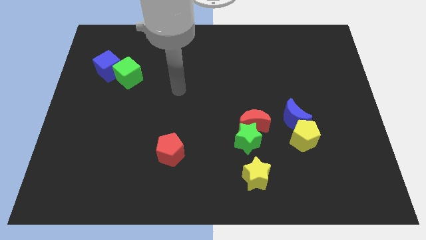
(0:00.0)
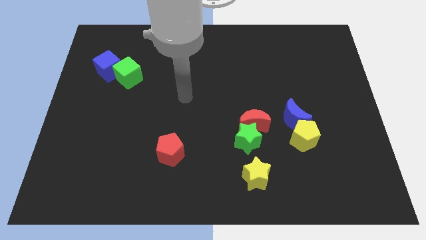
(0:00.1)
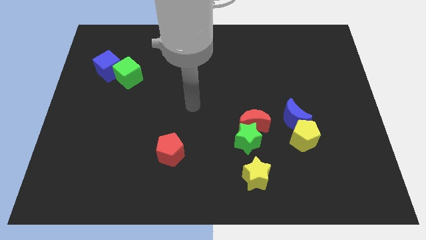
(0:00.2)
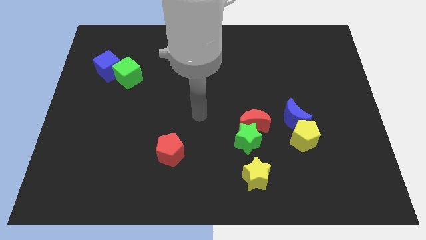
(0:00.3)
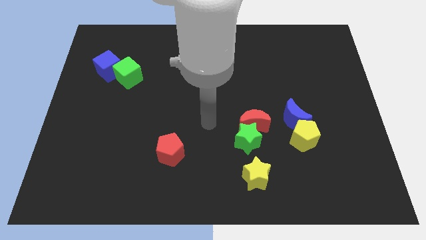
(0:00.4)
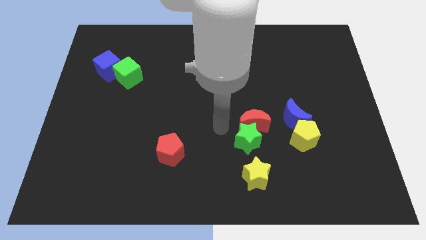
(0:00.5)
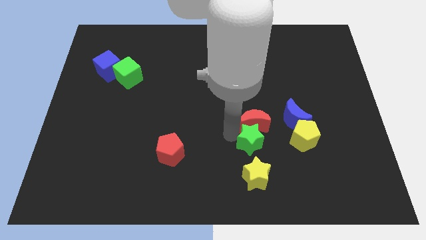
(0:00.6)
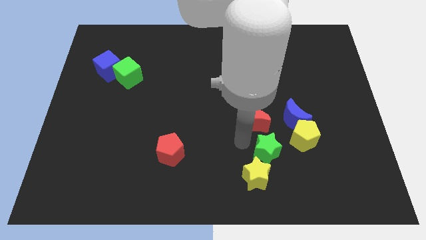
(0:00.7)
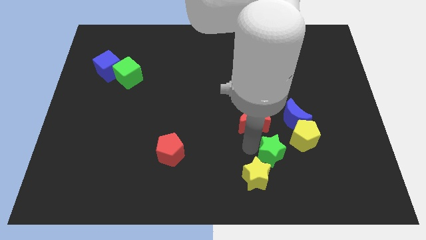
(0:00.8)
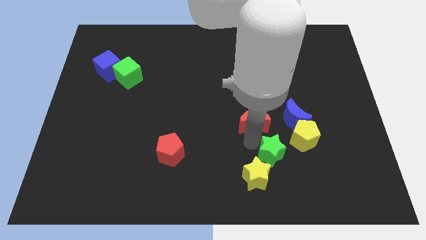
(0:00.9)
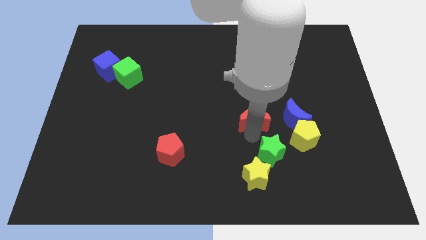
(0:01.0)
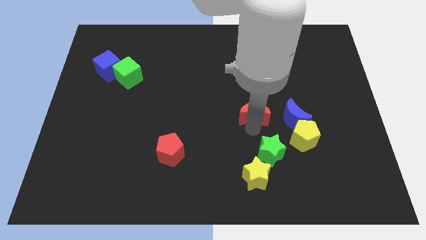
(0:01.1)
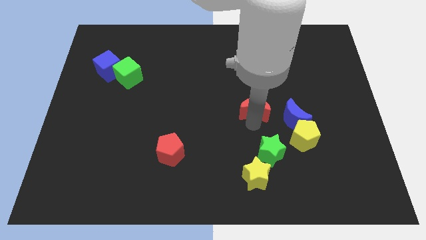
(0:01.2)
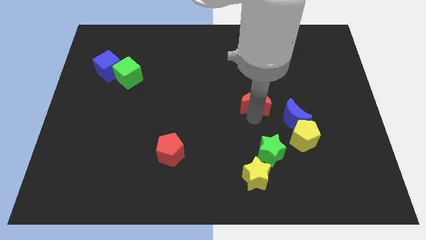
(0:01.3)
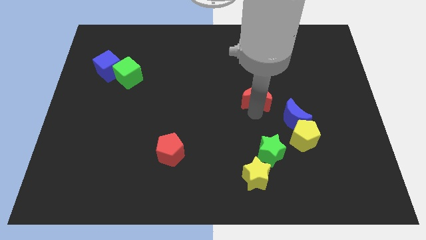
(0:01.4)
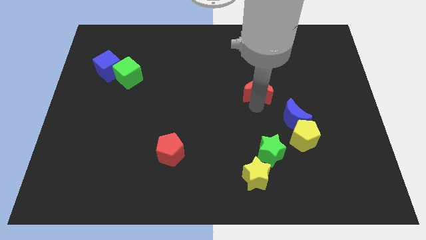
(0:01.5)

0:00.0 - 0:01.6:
slightly move the red moon up

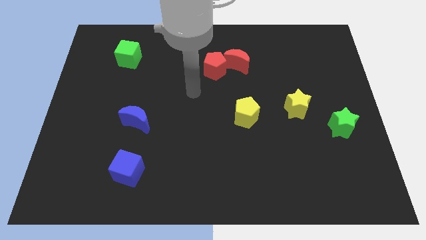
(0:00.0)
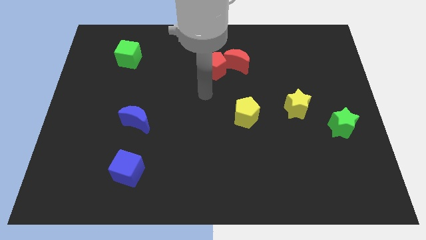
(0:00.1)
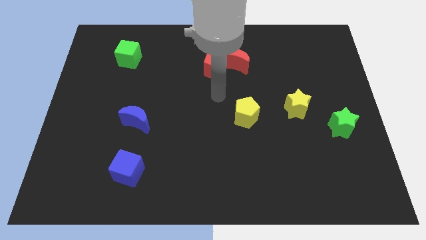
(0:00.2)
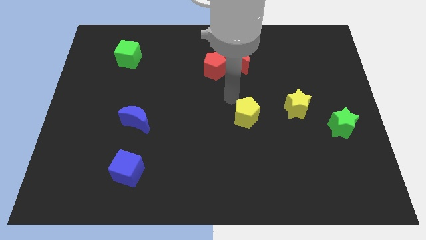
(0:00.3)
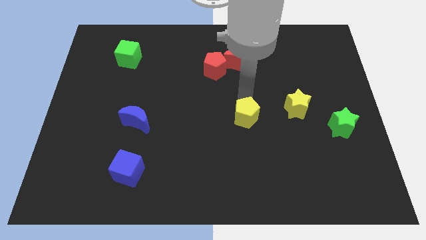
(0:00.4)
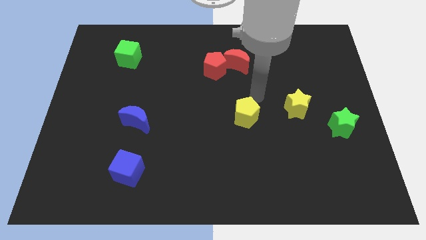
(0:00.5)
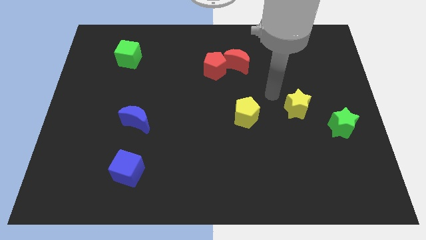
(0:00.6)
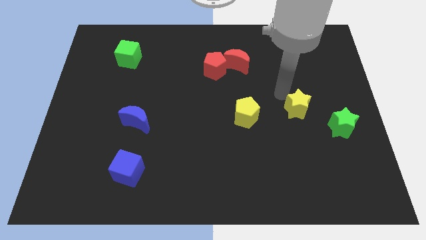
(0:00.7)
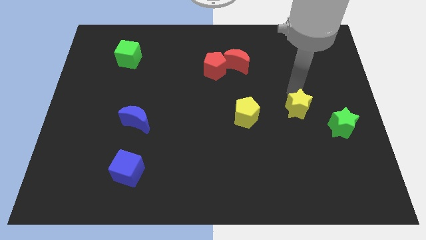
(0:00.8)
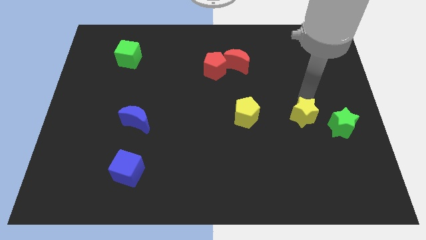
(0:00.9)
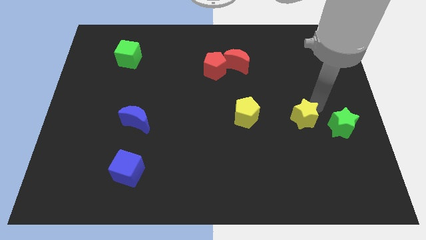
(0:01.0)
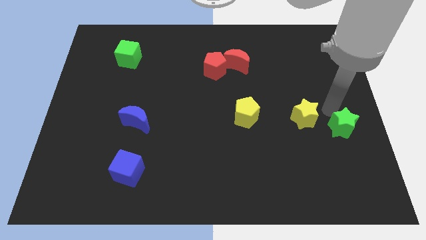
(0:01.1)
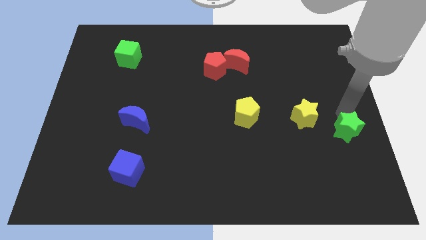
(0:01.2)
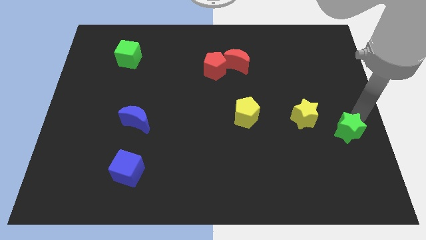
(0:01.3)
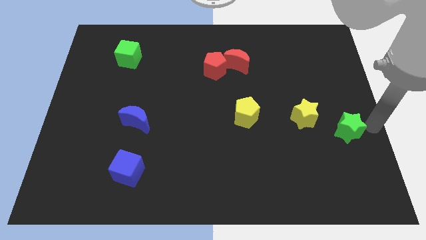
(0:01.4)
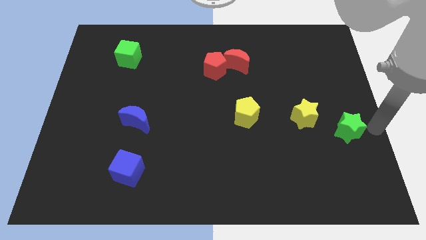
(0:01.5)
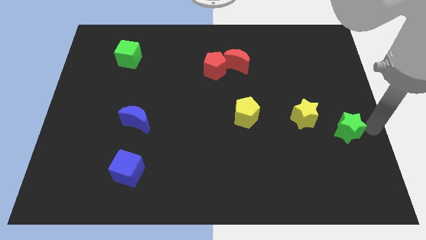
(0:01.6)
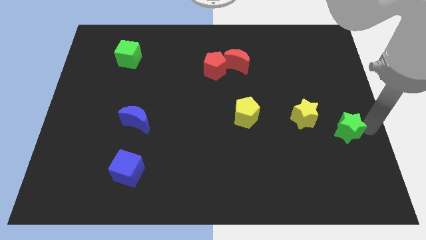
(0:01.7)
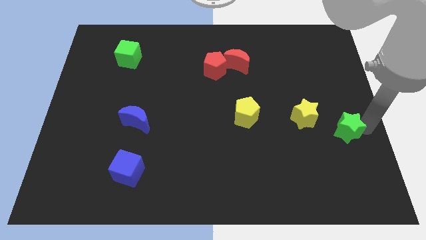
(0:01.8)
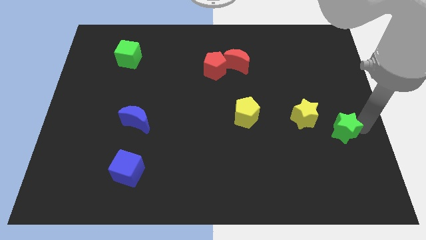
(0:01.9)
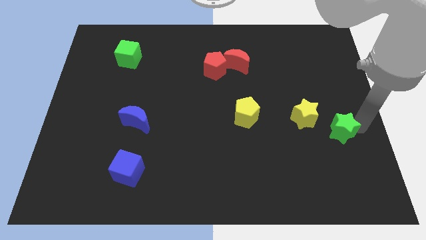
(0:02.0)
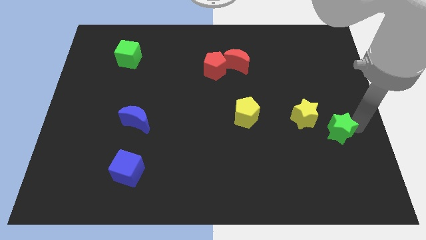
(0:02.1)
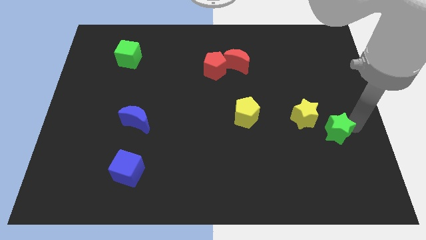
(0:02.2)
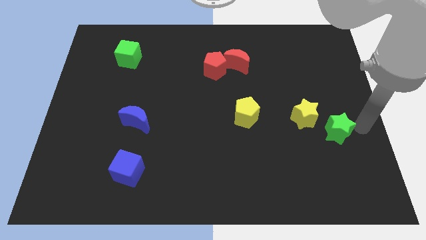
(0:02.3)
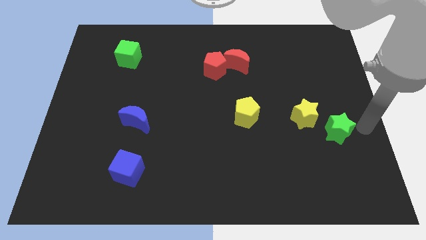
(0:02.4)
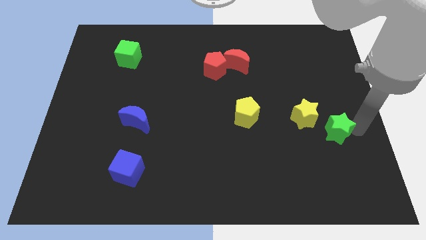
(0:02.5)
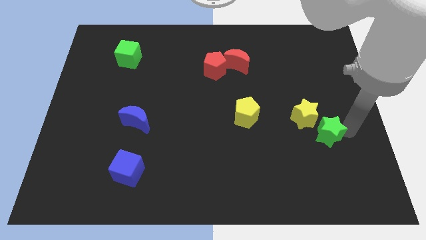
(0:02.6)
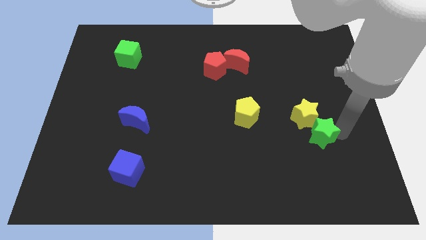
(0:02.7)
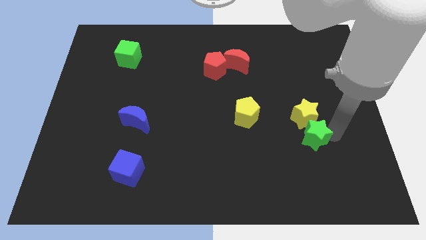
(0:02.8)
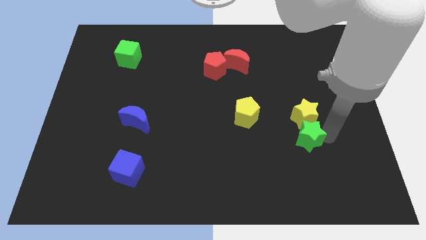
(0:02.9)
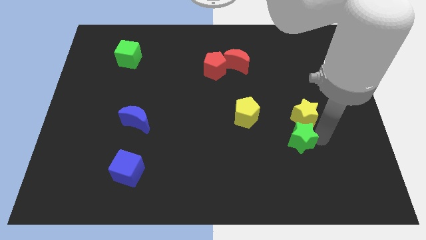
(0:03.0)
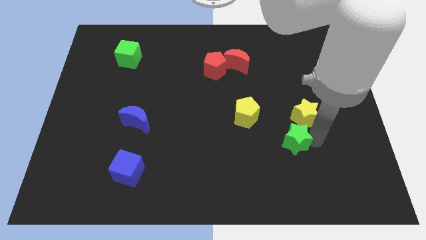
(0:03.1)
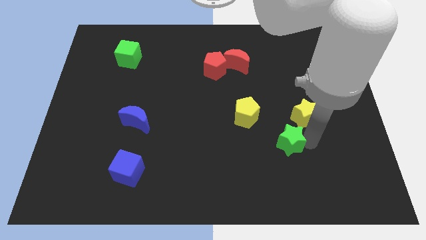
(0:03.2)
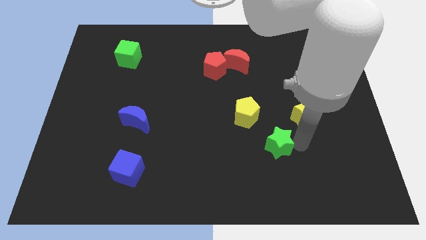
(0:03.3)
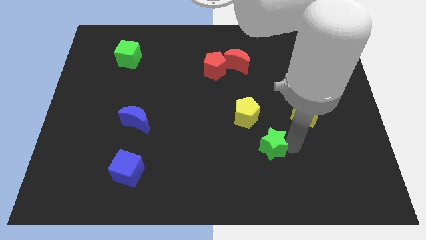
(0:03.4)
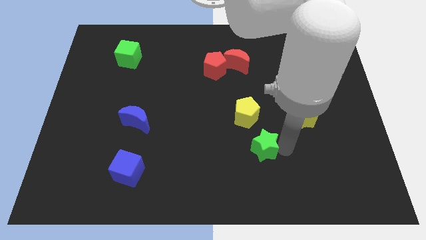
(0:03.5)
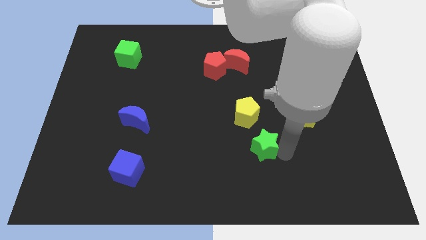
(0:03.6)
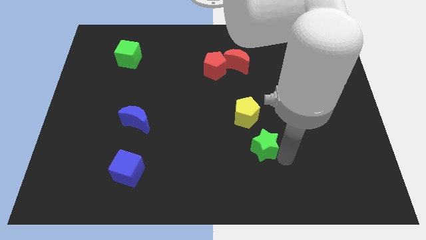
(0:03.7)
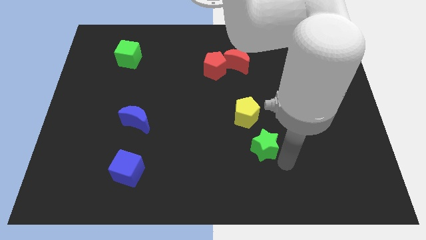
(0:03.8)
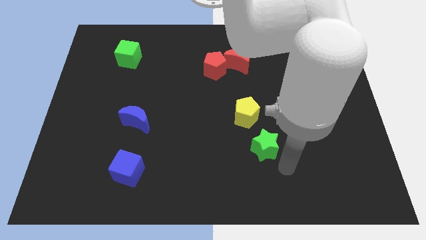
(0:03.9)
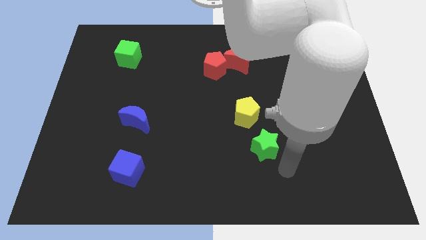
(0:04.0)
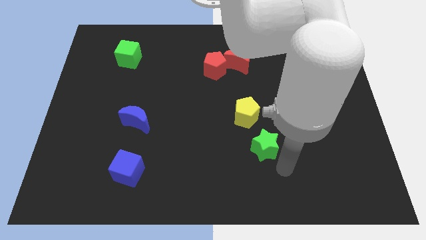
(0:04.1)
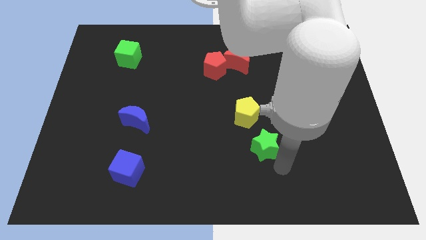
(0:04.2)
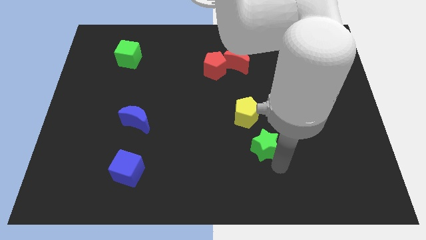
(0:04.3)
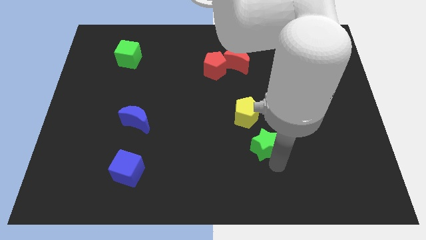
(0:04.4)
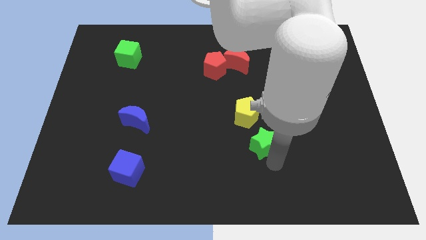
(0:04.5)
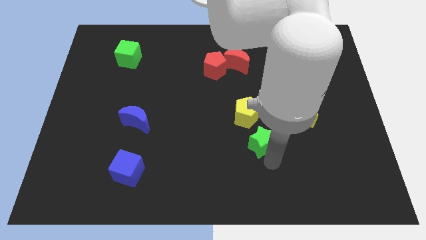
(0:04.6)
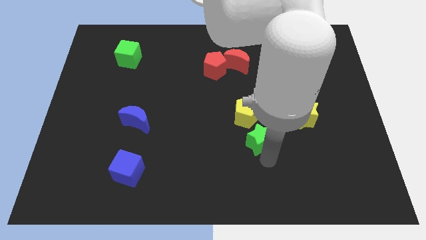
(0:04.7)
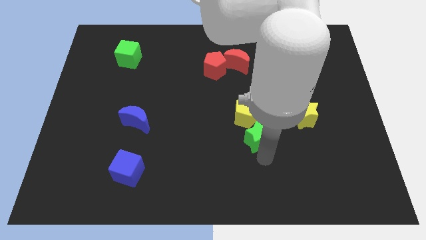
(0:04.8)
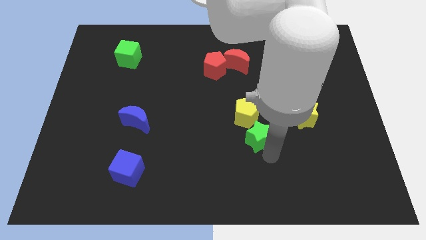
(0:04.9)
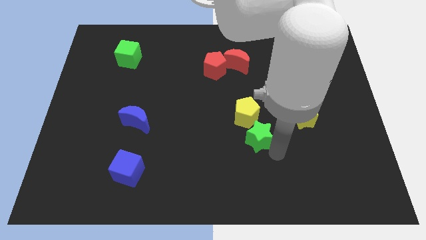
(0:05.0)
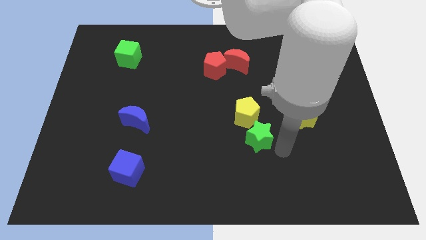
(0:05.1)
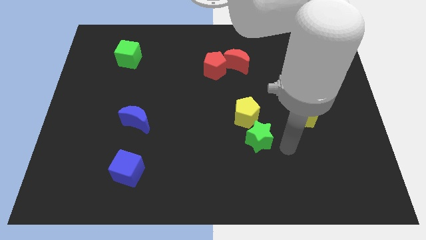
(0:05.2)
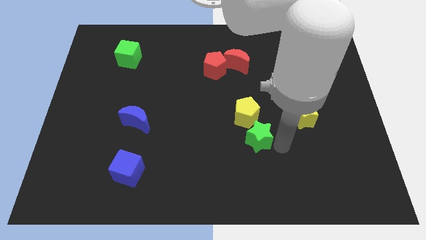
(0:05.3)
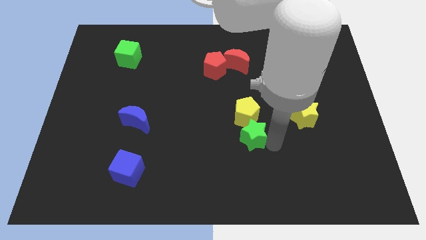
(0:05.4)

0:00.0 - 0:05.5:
slide the green star to the left

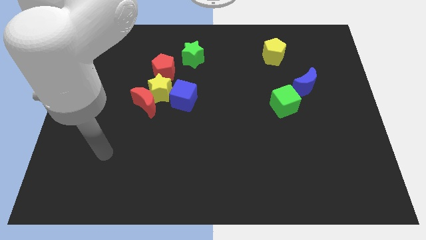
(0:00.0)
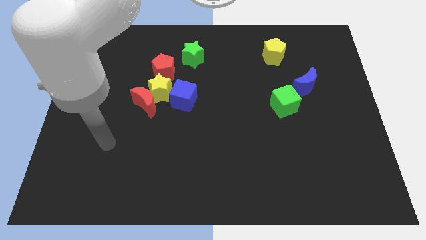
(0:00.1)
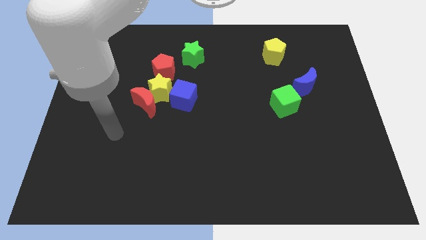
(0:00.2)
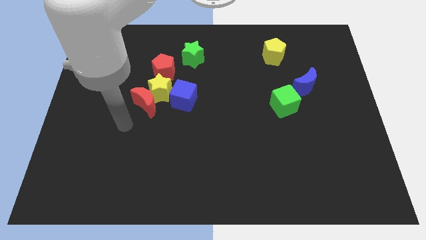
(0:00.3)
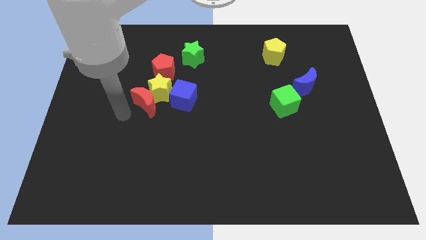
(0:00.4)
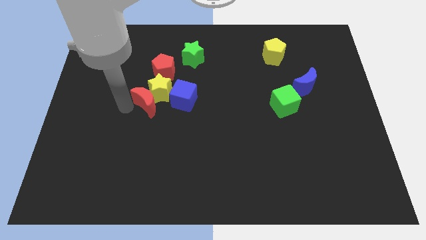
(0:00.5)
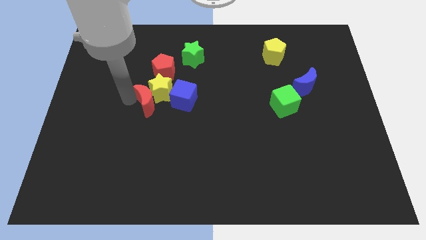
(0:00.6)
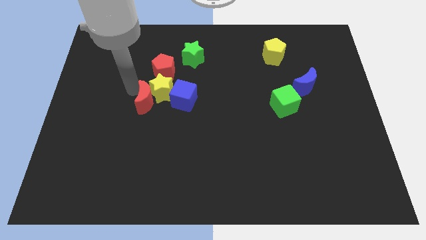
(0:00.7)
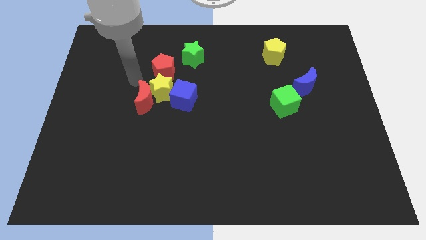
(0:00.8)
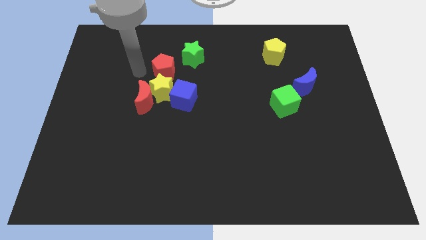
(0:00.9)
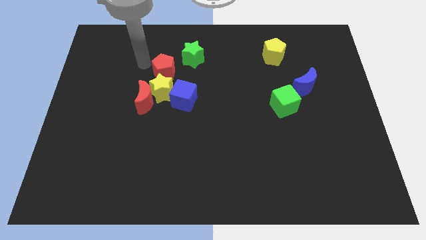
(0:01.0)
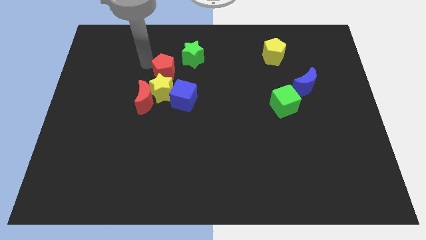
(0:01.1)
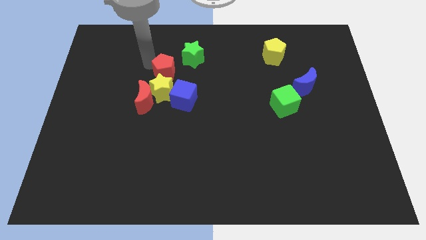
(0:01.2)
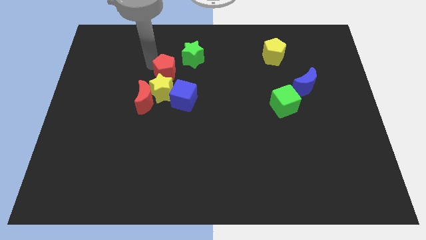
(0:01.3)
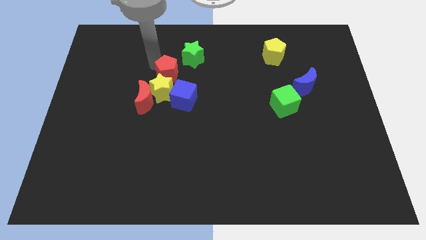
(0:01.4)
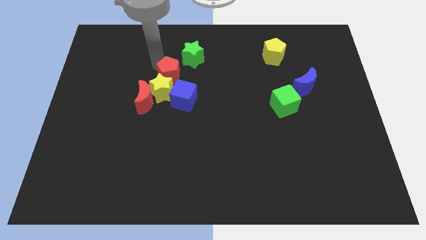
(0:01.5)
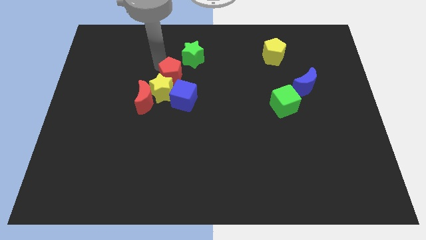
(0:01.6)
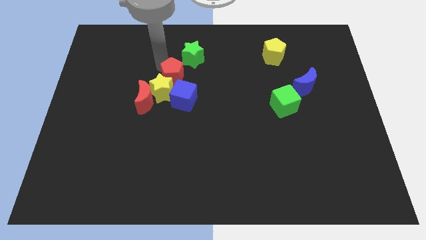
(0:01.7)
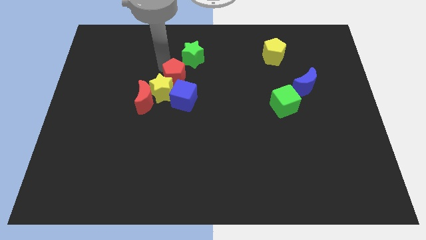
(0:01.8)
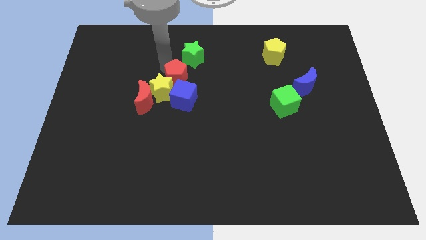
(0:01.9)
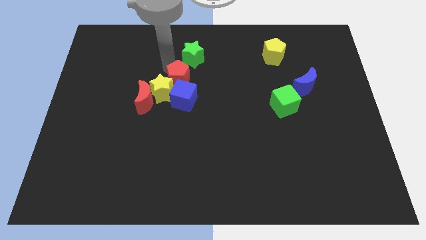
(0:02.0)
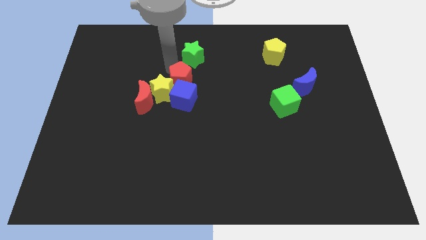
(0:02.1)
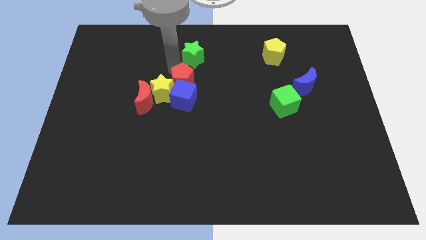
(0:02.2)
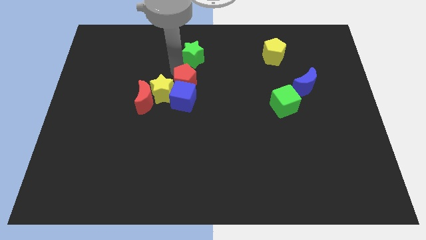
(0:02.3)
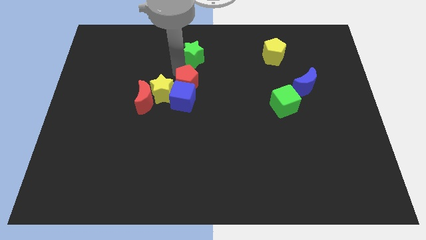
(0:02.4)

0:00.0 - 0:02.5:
slightly move the red pentagon downwards and then right
